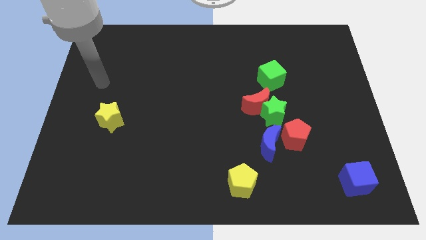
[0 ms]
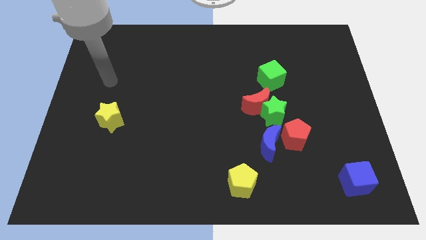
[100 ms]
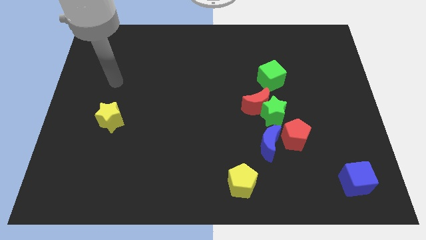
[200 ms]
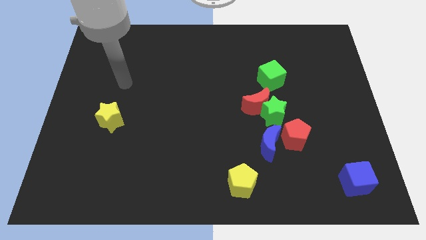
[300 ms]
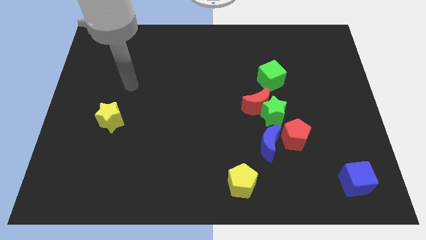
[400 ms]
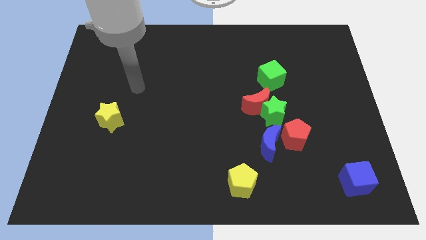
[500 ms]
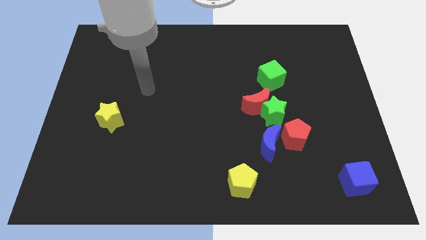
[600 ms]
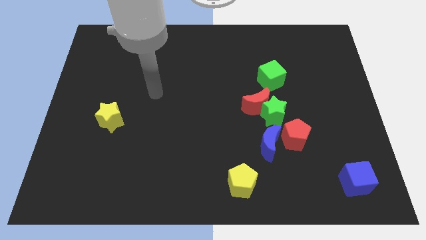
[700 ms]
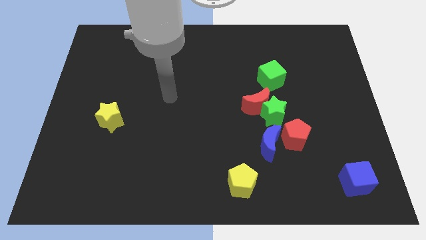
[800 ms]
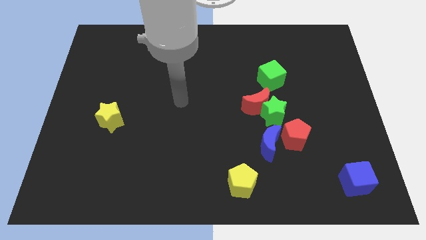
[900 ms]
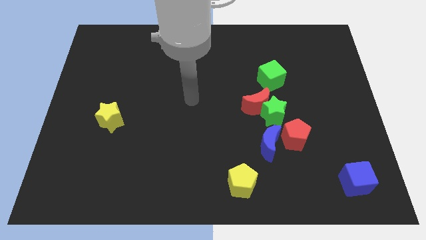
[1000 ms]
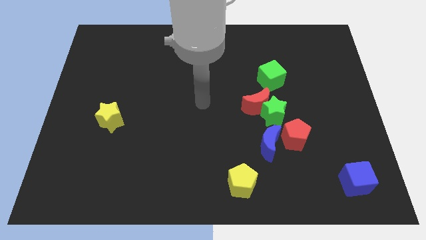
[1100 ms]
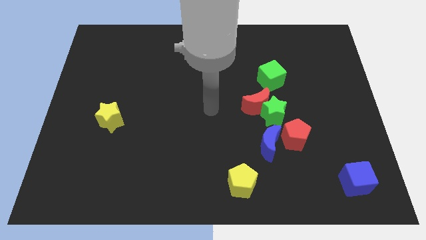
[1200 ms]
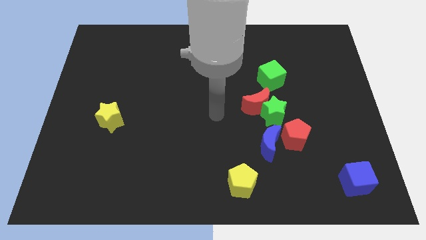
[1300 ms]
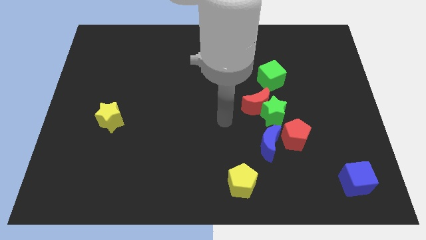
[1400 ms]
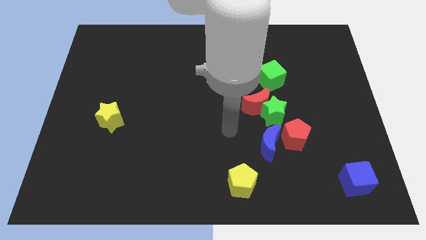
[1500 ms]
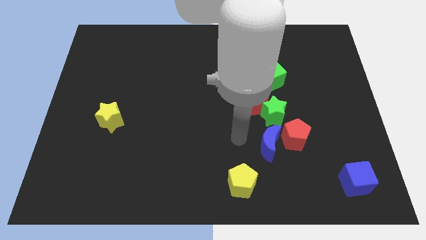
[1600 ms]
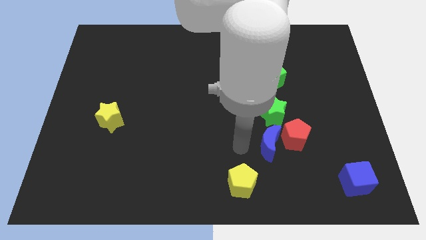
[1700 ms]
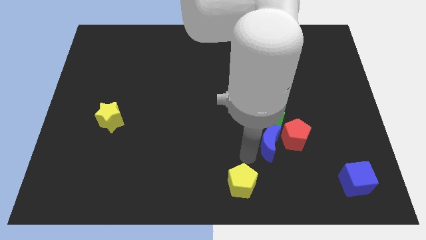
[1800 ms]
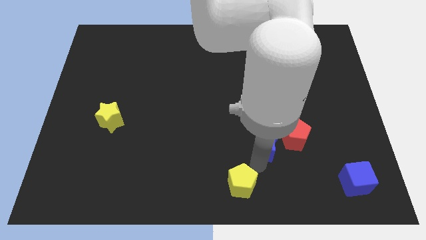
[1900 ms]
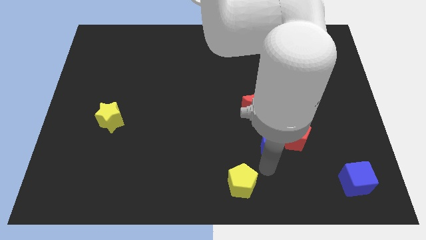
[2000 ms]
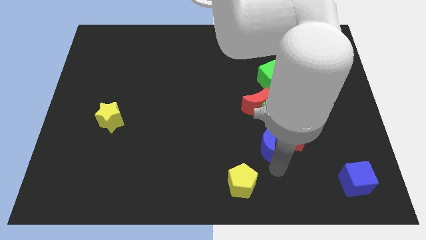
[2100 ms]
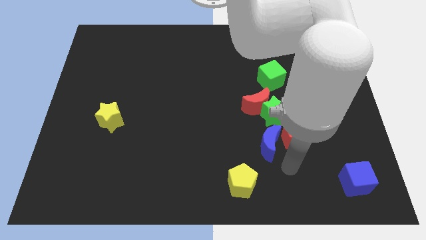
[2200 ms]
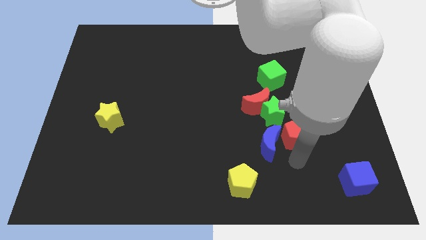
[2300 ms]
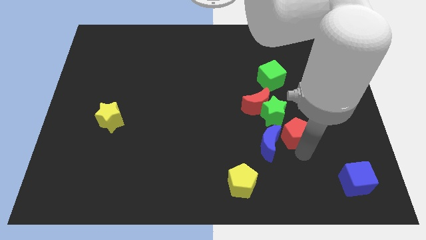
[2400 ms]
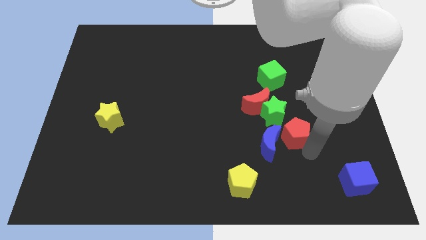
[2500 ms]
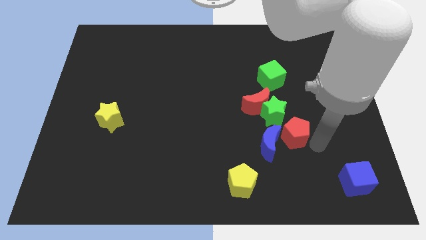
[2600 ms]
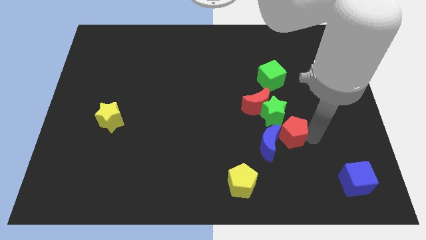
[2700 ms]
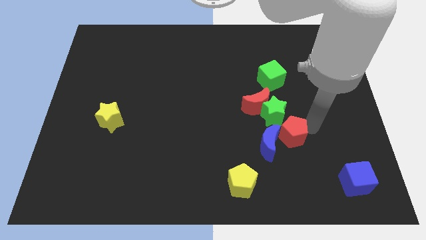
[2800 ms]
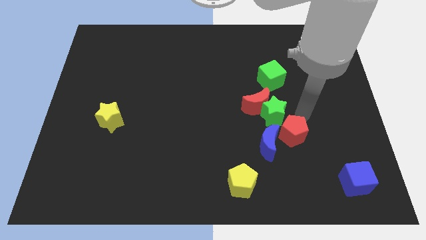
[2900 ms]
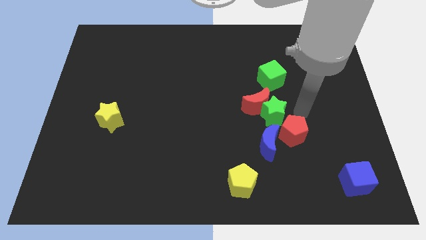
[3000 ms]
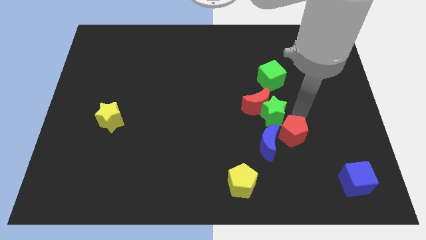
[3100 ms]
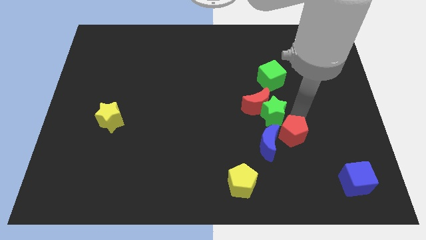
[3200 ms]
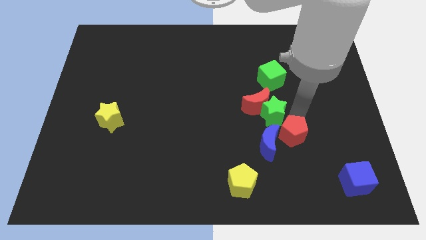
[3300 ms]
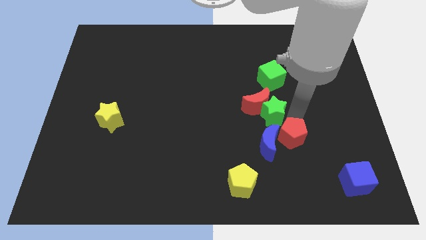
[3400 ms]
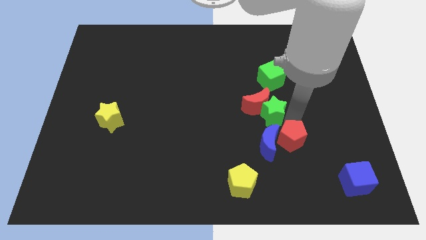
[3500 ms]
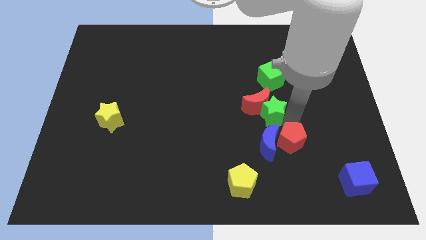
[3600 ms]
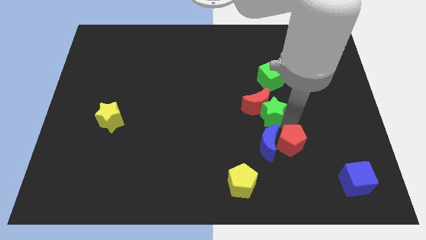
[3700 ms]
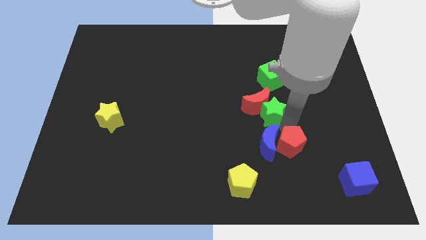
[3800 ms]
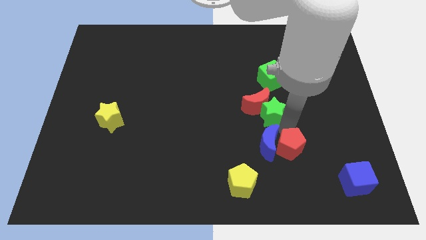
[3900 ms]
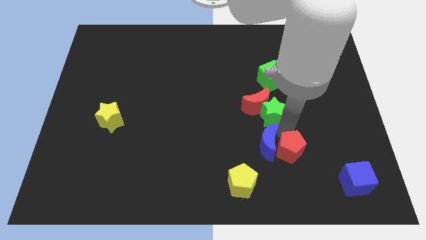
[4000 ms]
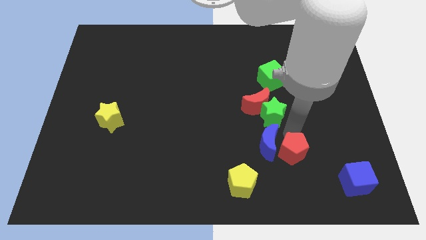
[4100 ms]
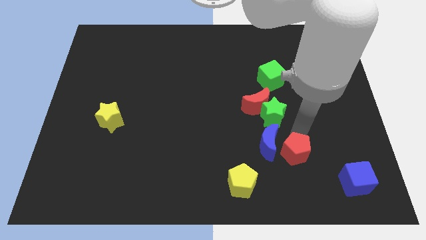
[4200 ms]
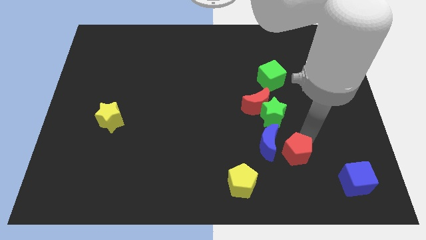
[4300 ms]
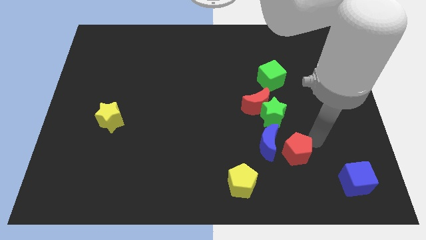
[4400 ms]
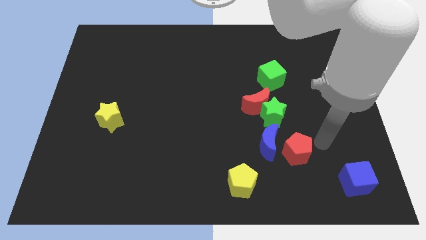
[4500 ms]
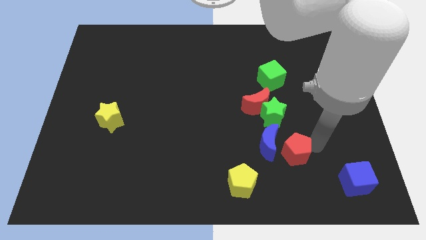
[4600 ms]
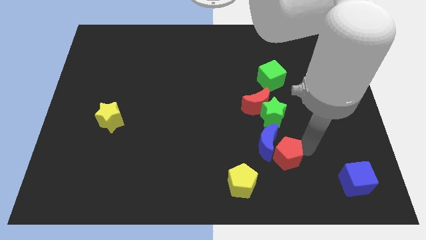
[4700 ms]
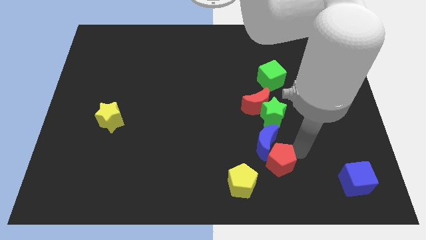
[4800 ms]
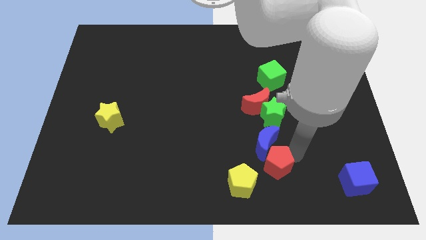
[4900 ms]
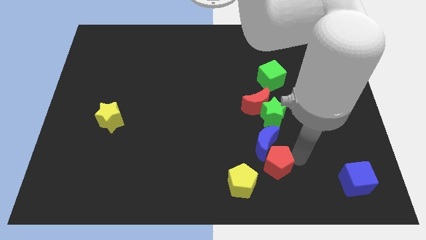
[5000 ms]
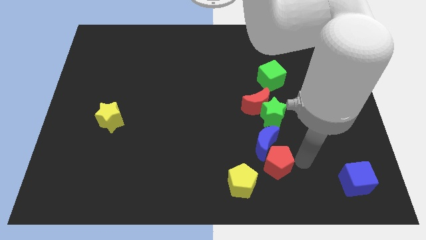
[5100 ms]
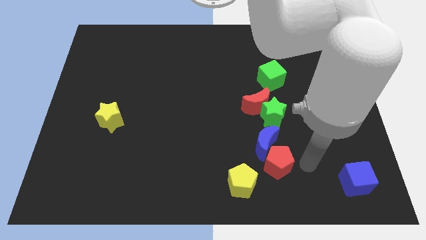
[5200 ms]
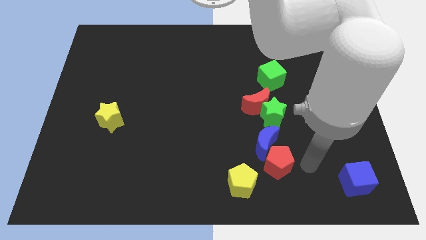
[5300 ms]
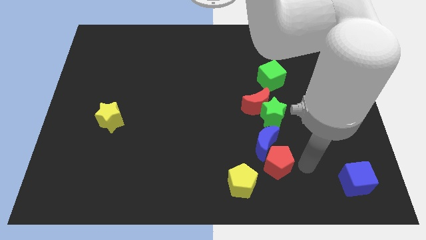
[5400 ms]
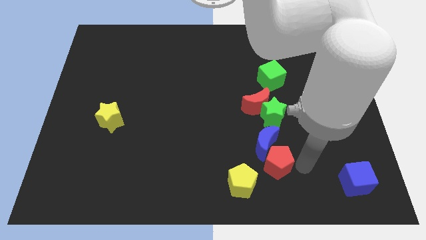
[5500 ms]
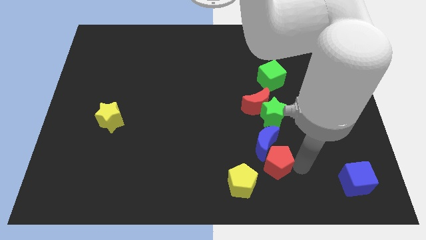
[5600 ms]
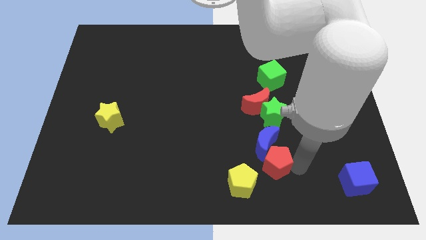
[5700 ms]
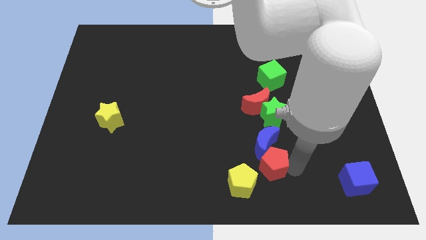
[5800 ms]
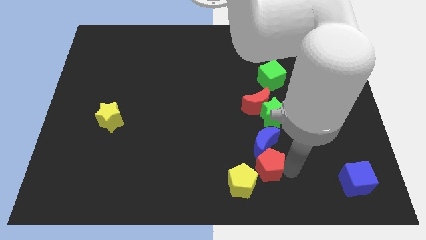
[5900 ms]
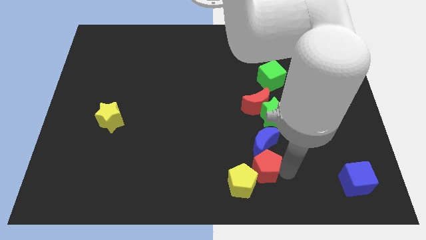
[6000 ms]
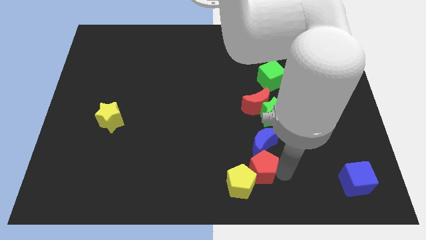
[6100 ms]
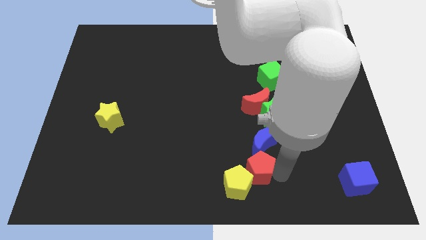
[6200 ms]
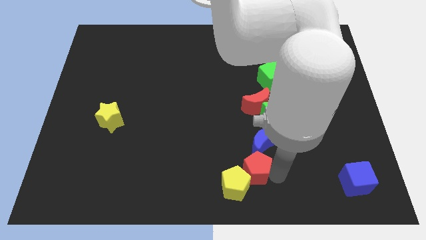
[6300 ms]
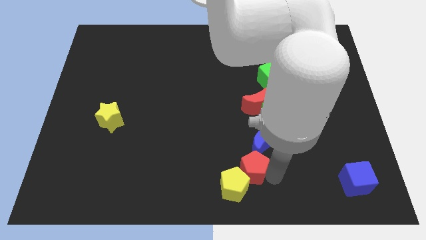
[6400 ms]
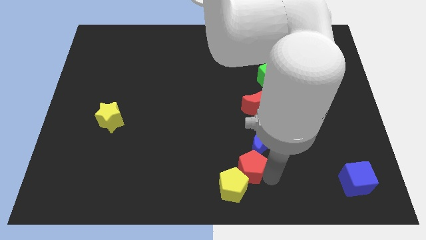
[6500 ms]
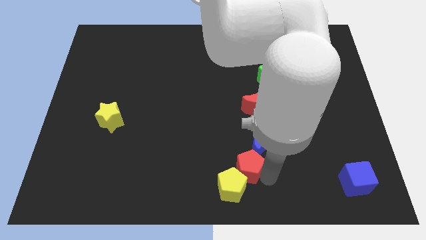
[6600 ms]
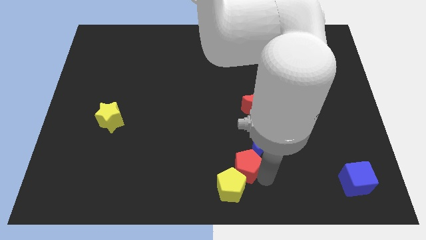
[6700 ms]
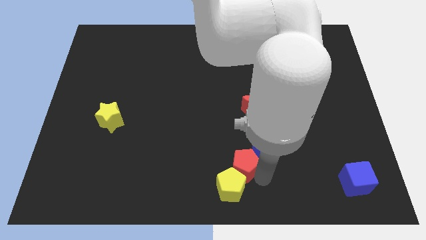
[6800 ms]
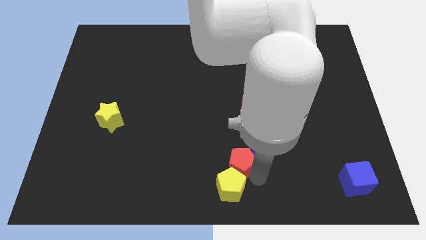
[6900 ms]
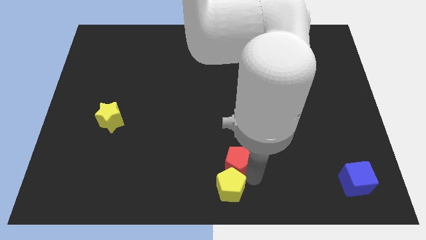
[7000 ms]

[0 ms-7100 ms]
move the red pentagon left of the blue moon
